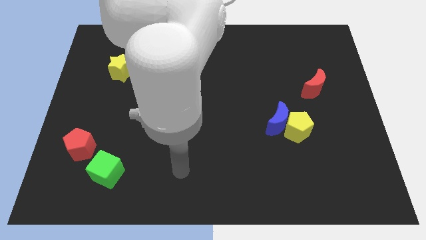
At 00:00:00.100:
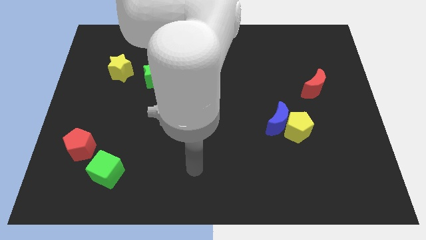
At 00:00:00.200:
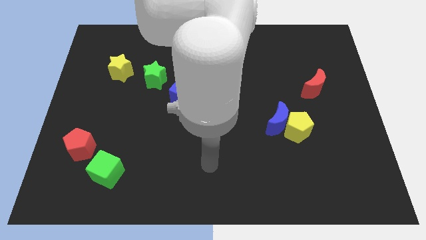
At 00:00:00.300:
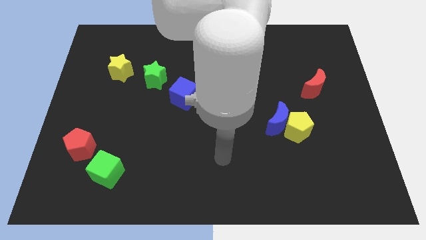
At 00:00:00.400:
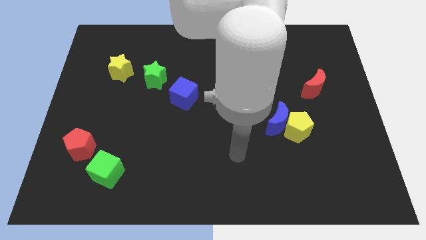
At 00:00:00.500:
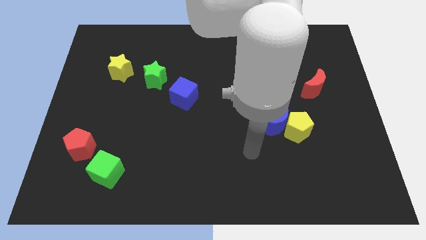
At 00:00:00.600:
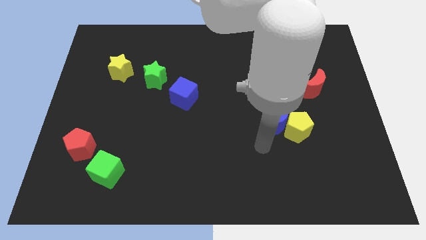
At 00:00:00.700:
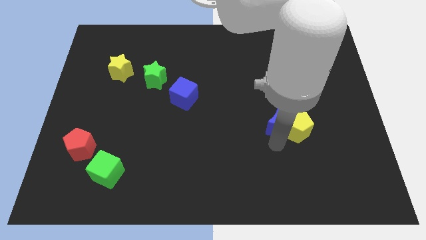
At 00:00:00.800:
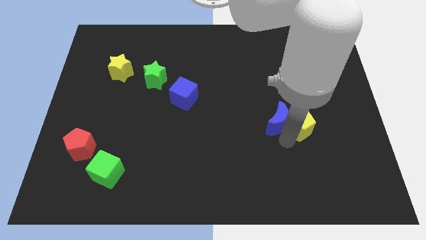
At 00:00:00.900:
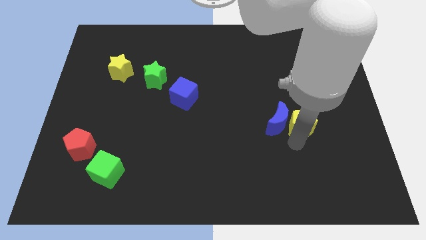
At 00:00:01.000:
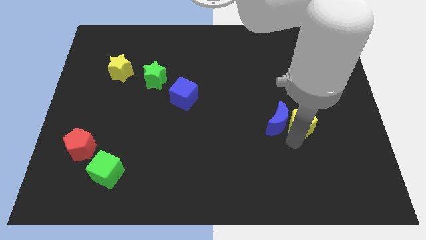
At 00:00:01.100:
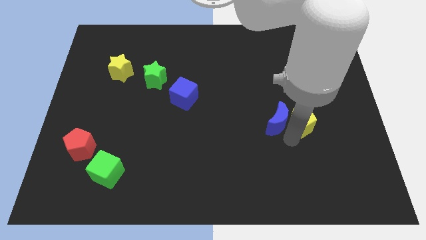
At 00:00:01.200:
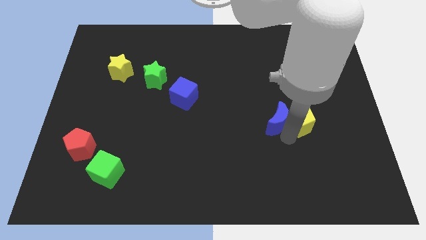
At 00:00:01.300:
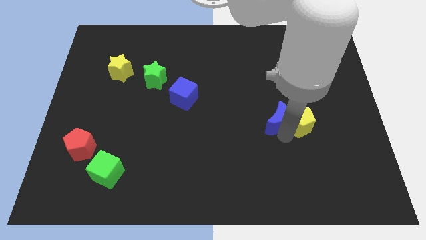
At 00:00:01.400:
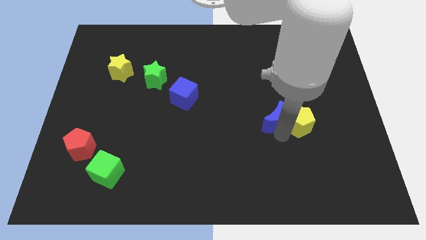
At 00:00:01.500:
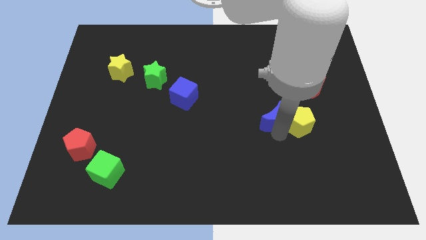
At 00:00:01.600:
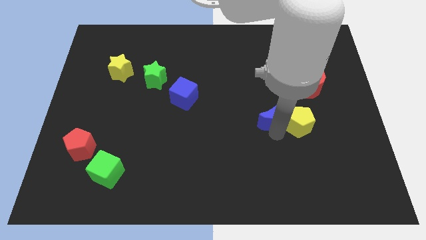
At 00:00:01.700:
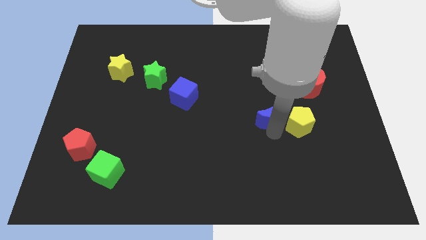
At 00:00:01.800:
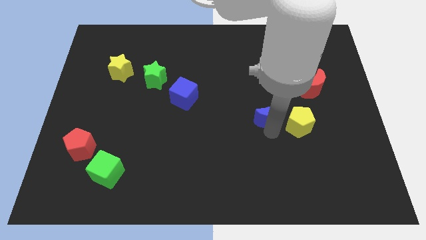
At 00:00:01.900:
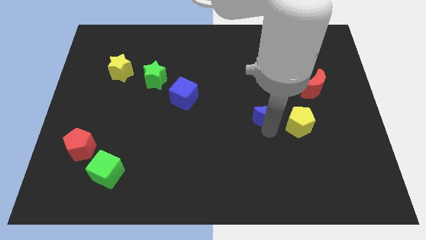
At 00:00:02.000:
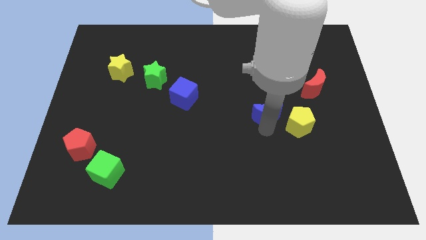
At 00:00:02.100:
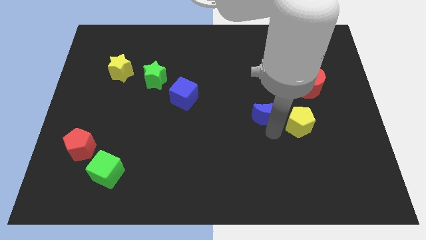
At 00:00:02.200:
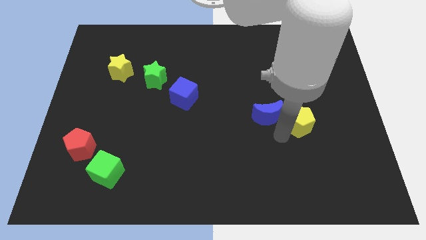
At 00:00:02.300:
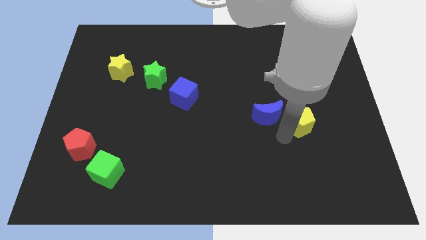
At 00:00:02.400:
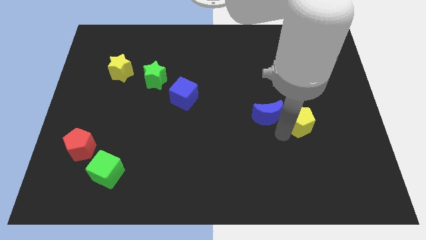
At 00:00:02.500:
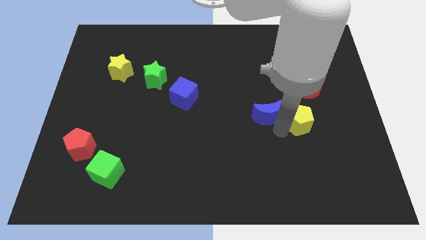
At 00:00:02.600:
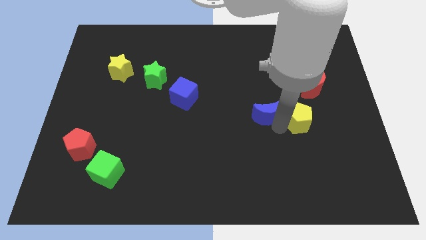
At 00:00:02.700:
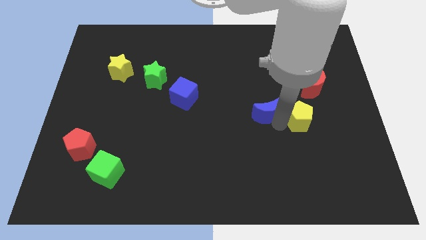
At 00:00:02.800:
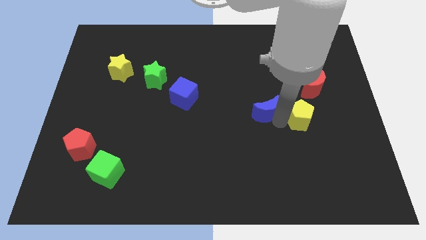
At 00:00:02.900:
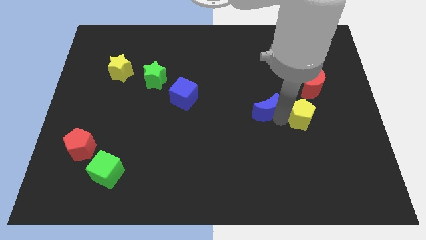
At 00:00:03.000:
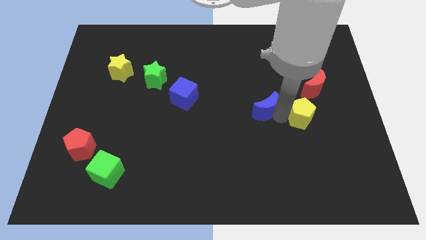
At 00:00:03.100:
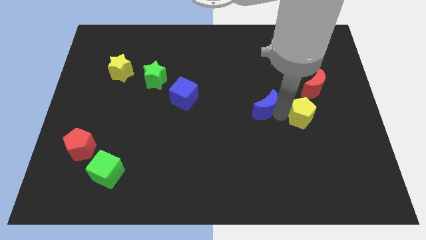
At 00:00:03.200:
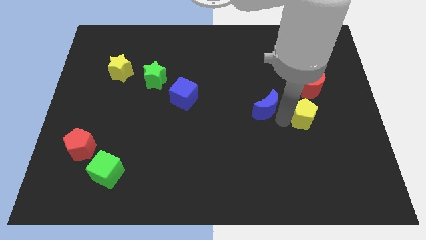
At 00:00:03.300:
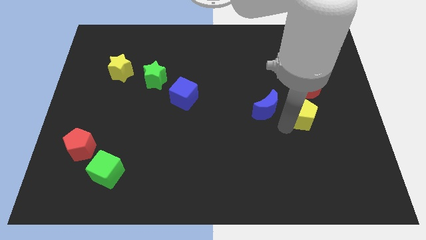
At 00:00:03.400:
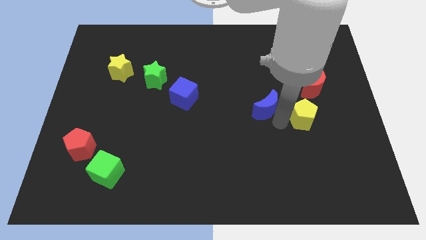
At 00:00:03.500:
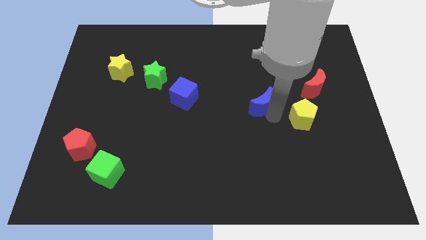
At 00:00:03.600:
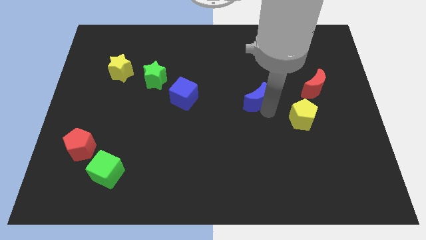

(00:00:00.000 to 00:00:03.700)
move the blue moon upwards and then to the left somewhat

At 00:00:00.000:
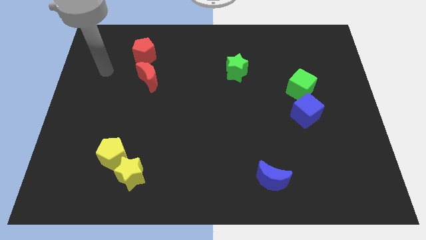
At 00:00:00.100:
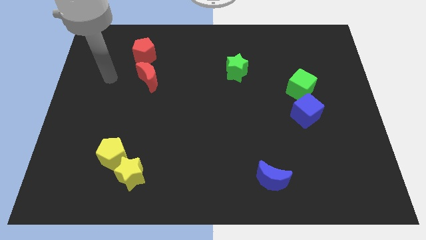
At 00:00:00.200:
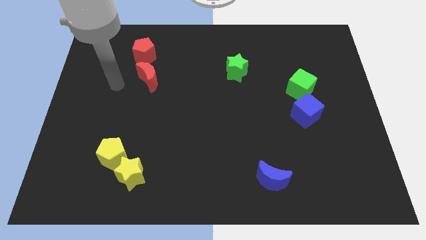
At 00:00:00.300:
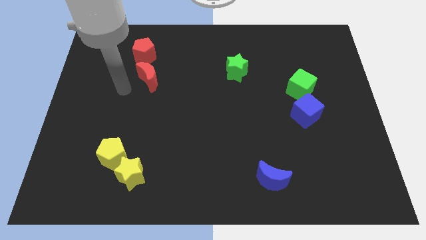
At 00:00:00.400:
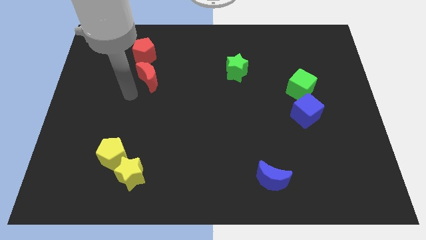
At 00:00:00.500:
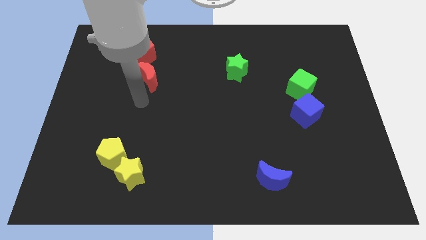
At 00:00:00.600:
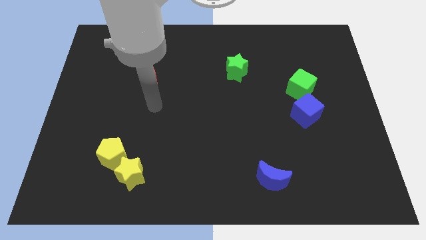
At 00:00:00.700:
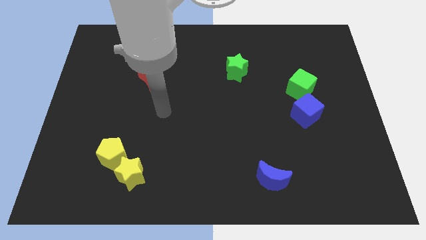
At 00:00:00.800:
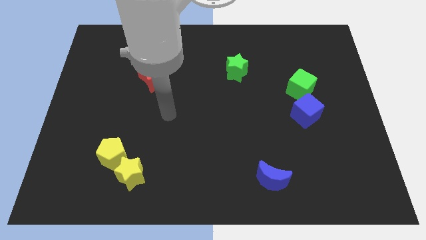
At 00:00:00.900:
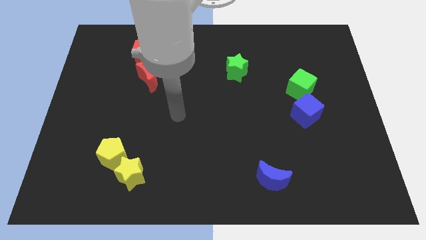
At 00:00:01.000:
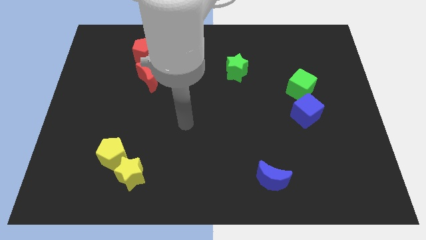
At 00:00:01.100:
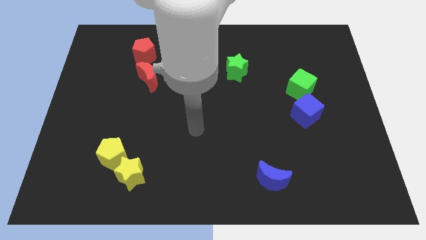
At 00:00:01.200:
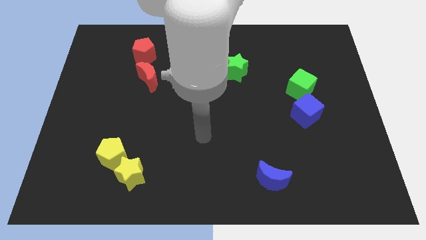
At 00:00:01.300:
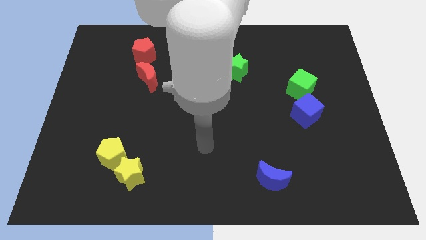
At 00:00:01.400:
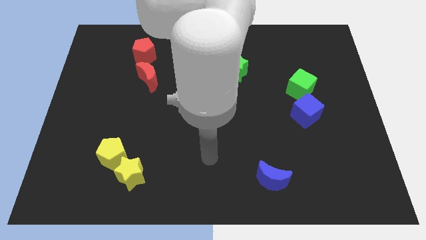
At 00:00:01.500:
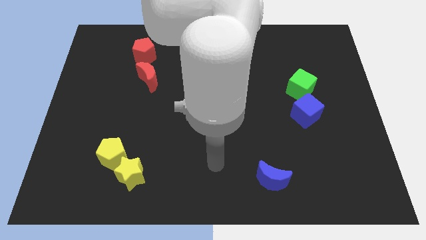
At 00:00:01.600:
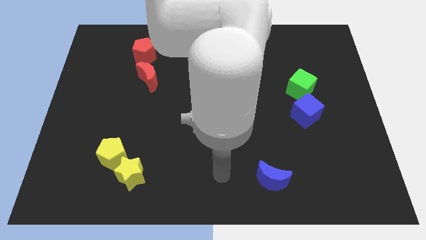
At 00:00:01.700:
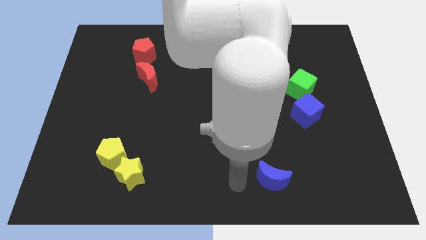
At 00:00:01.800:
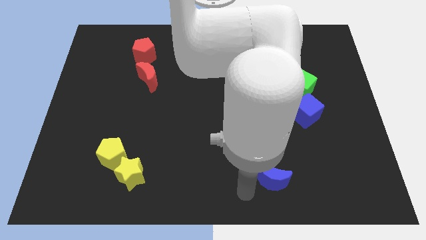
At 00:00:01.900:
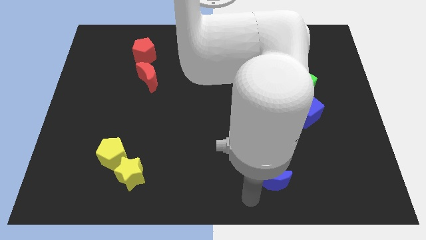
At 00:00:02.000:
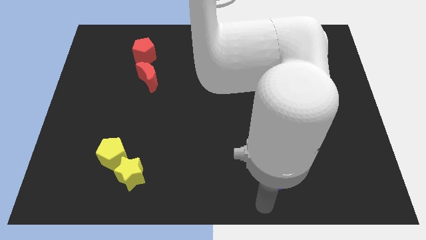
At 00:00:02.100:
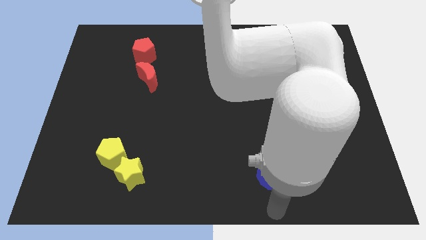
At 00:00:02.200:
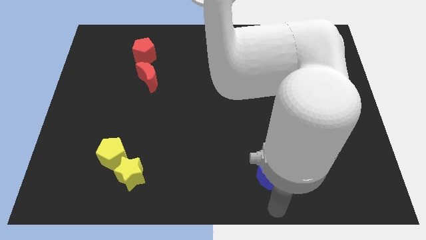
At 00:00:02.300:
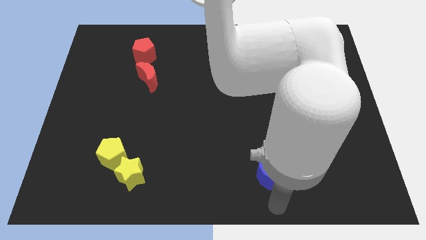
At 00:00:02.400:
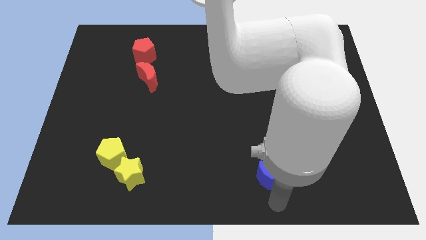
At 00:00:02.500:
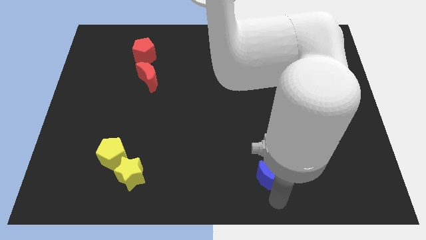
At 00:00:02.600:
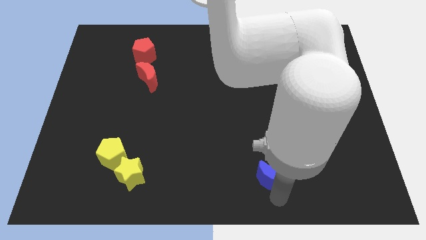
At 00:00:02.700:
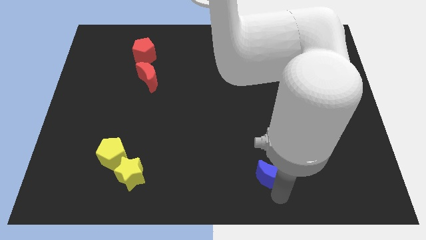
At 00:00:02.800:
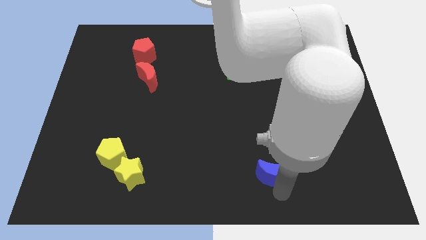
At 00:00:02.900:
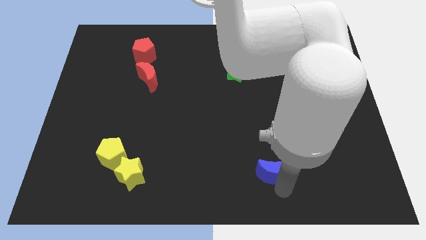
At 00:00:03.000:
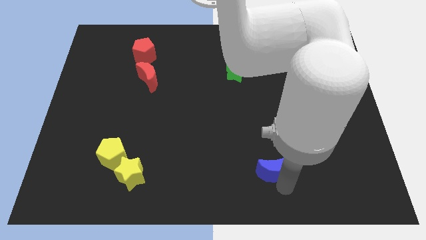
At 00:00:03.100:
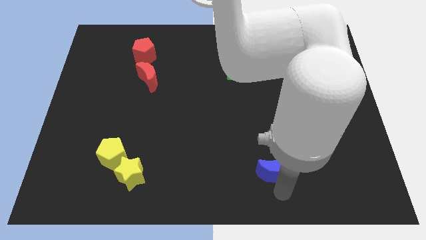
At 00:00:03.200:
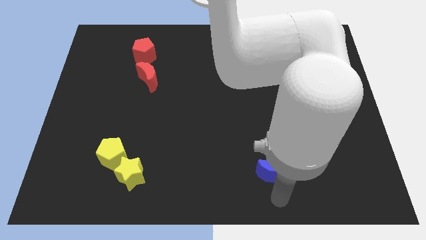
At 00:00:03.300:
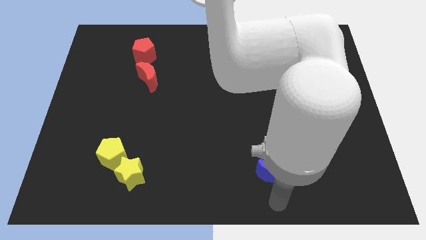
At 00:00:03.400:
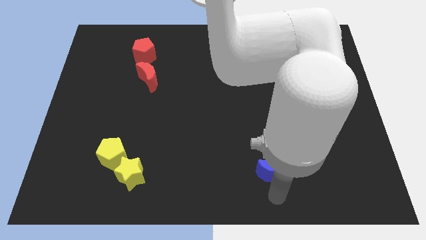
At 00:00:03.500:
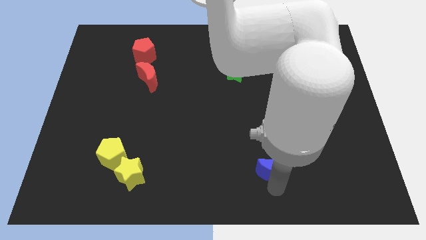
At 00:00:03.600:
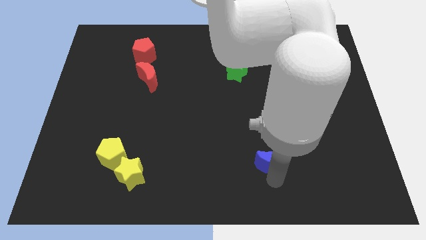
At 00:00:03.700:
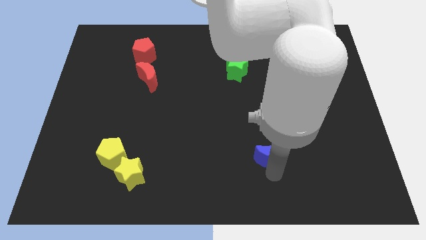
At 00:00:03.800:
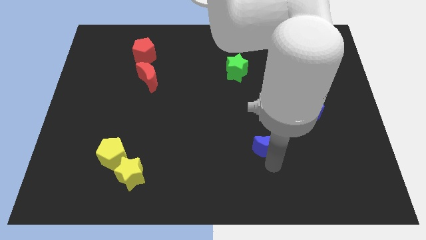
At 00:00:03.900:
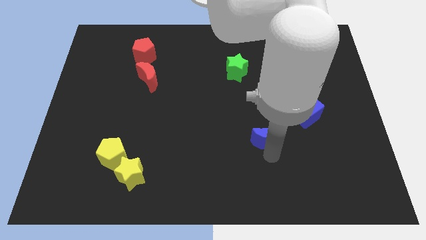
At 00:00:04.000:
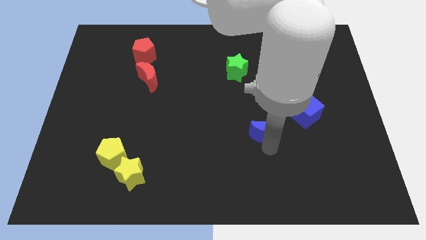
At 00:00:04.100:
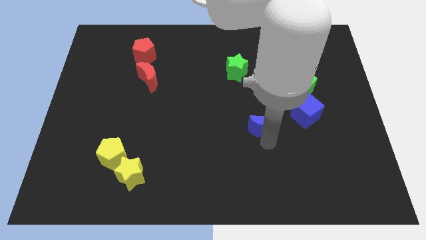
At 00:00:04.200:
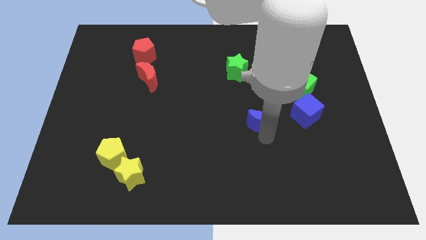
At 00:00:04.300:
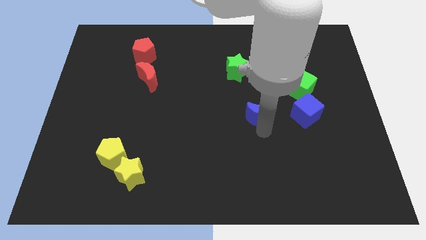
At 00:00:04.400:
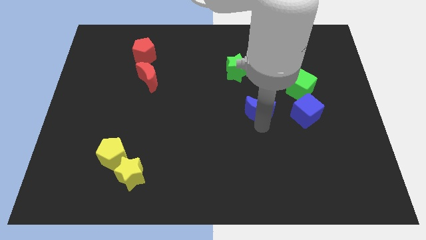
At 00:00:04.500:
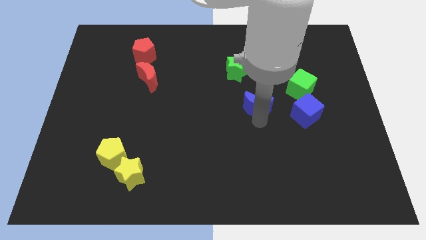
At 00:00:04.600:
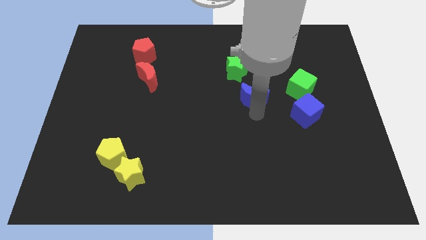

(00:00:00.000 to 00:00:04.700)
move the blue moon up
